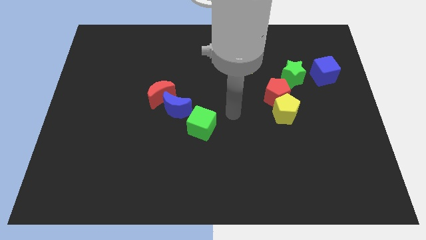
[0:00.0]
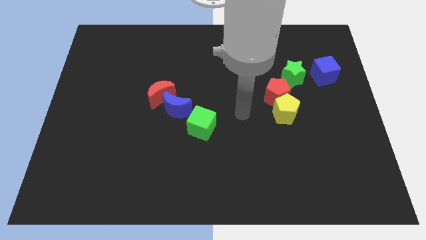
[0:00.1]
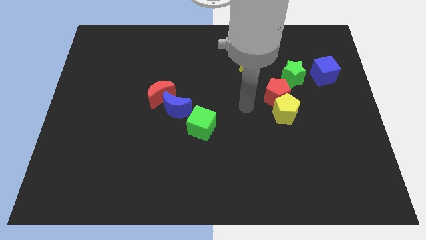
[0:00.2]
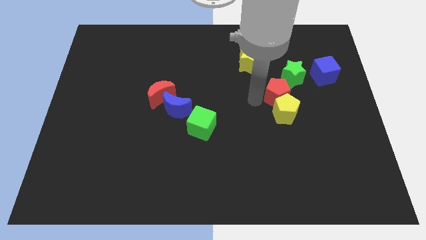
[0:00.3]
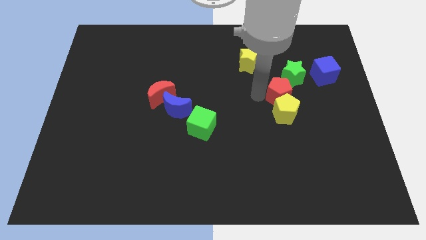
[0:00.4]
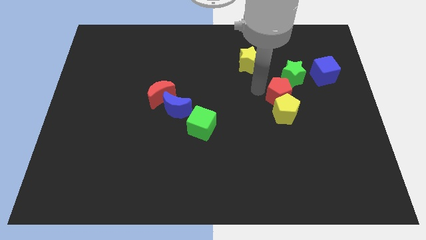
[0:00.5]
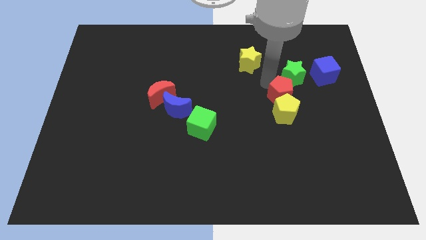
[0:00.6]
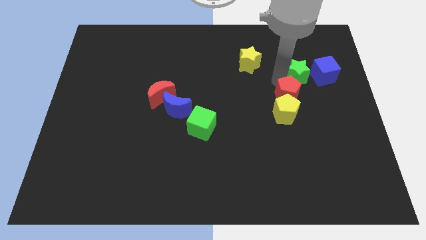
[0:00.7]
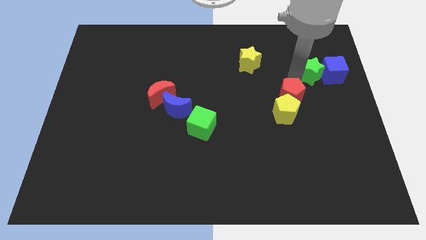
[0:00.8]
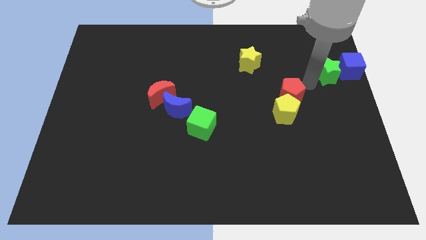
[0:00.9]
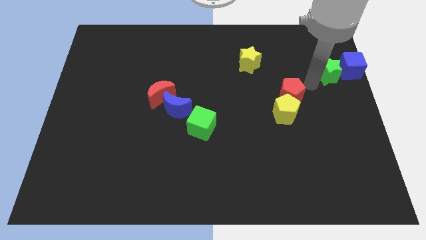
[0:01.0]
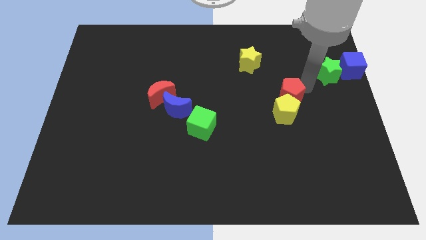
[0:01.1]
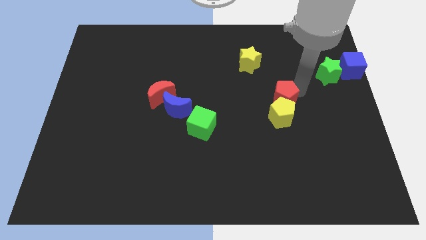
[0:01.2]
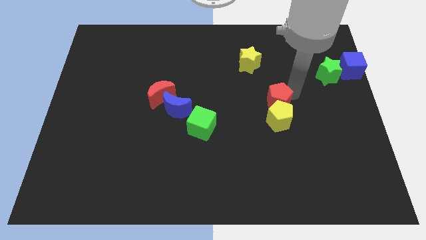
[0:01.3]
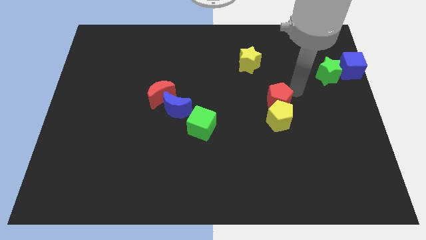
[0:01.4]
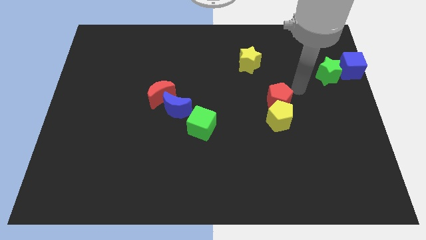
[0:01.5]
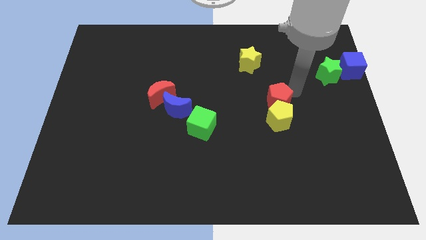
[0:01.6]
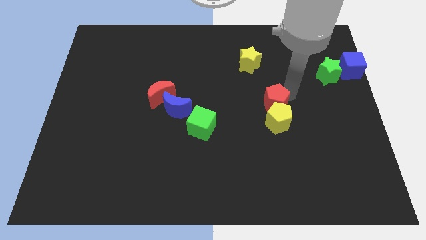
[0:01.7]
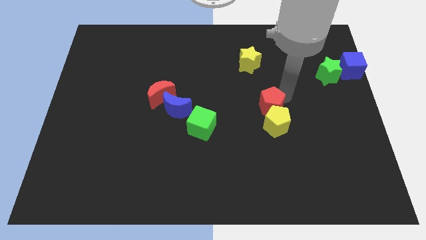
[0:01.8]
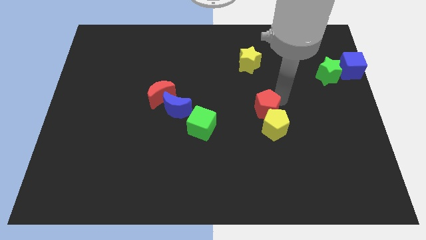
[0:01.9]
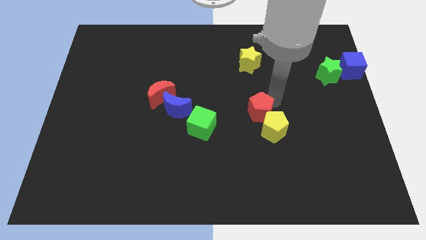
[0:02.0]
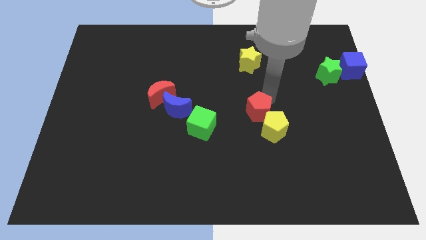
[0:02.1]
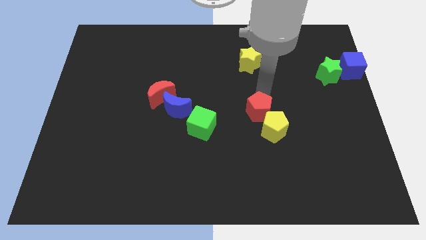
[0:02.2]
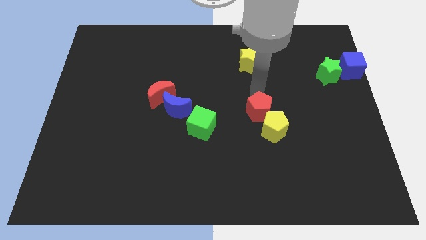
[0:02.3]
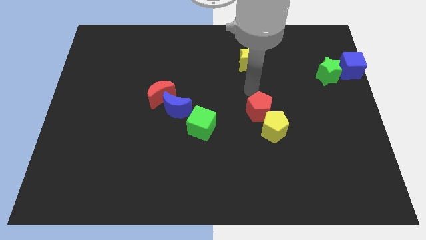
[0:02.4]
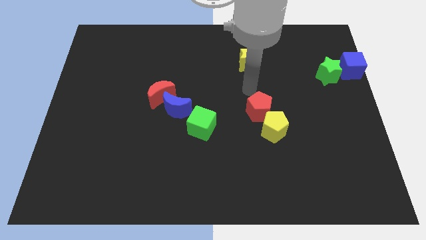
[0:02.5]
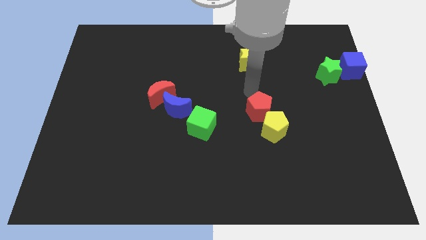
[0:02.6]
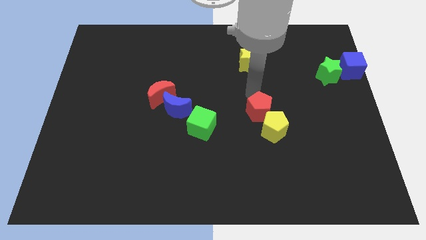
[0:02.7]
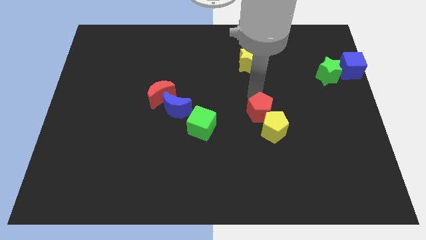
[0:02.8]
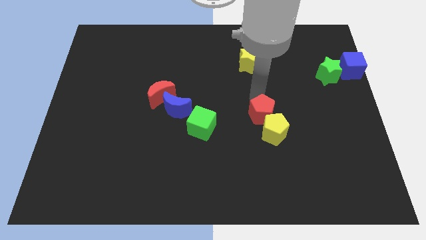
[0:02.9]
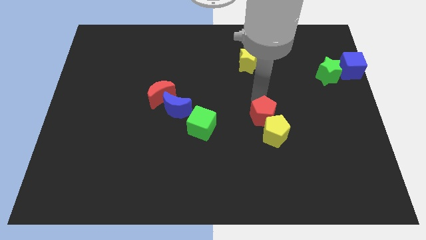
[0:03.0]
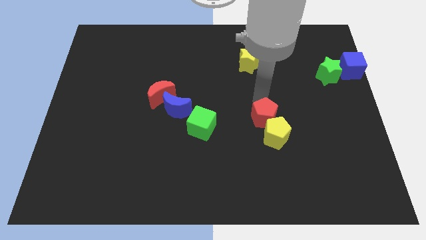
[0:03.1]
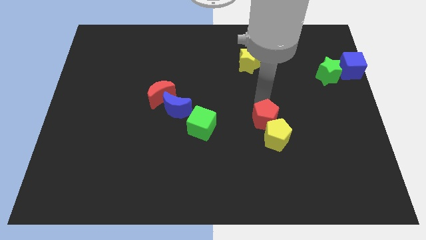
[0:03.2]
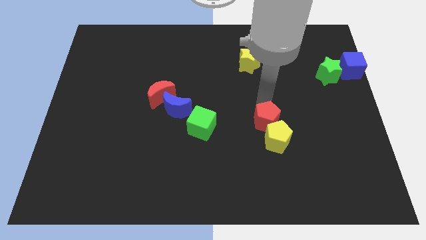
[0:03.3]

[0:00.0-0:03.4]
slightly move the red pentagon down

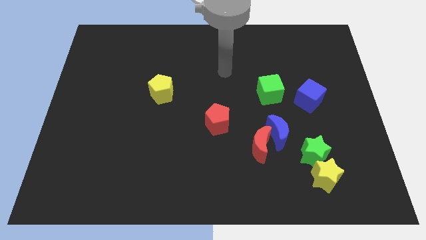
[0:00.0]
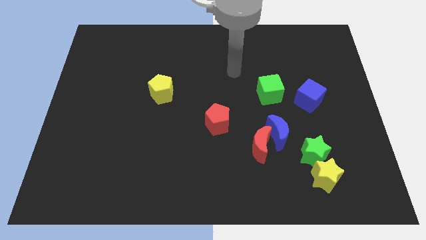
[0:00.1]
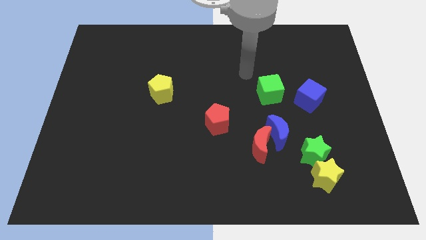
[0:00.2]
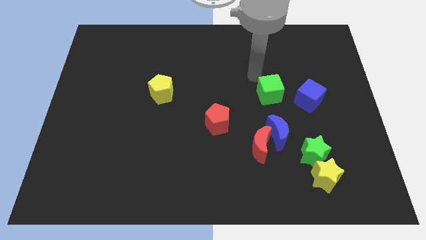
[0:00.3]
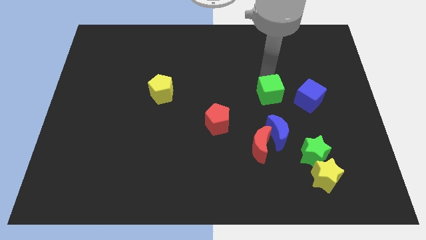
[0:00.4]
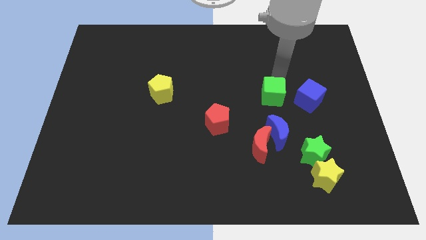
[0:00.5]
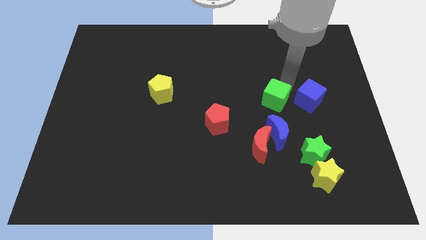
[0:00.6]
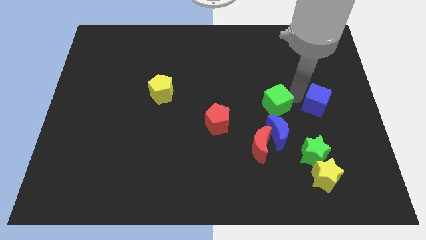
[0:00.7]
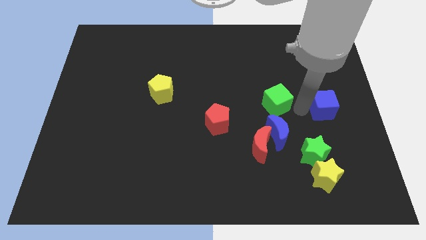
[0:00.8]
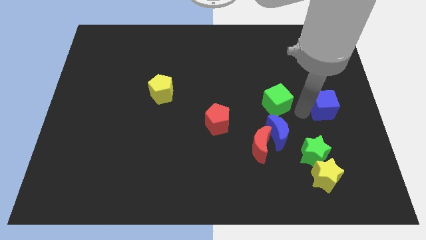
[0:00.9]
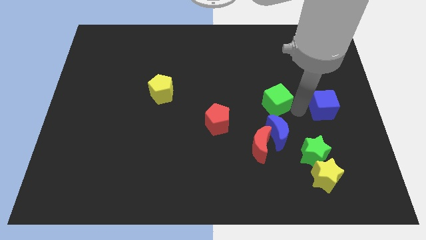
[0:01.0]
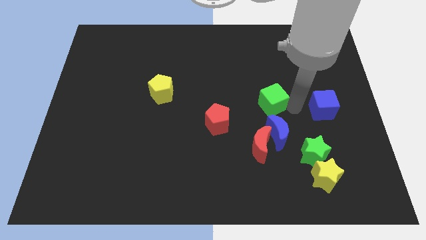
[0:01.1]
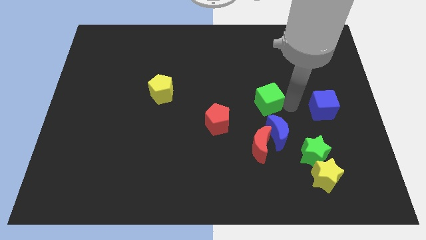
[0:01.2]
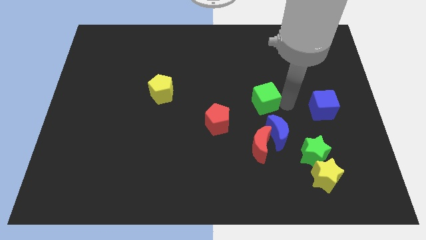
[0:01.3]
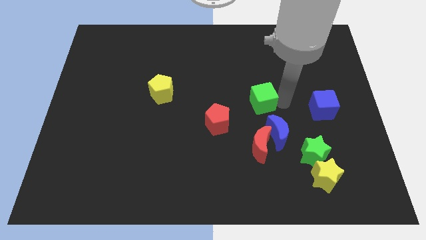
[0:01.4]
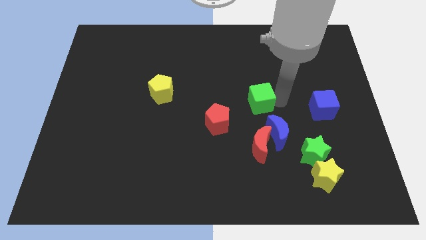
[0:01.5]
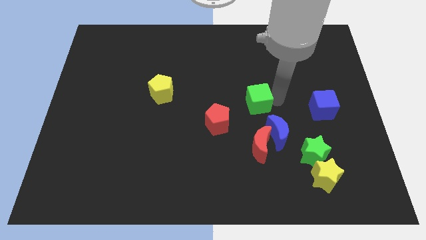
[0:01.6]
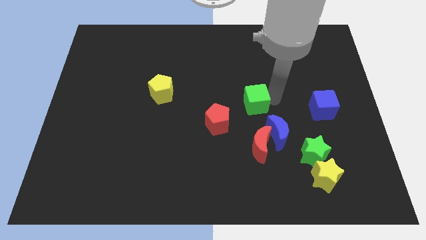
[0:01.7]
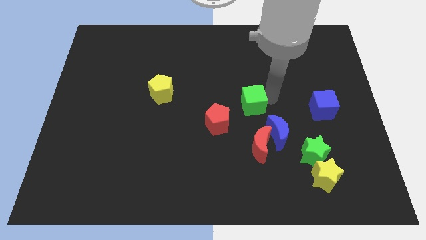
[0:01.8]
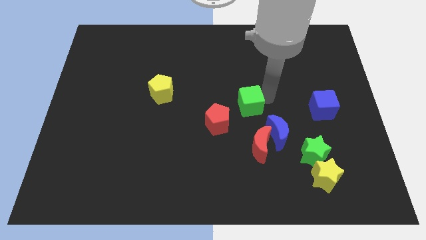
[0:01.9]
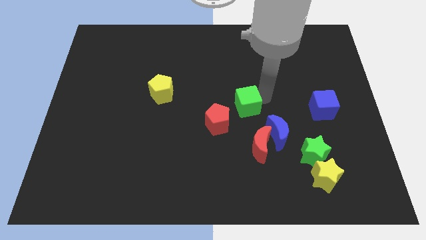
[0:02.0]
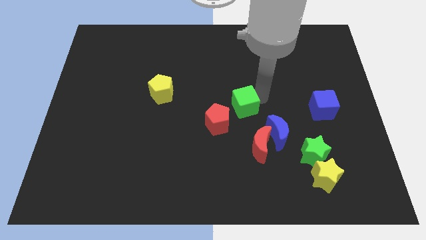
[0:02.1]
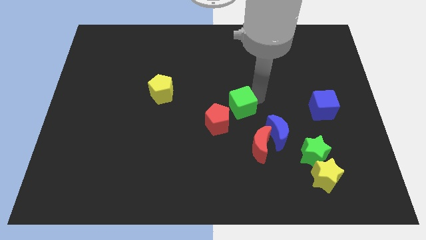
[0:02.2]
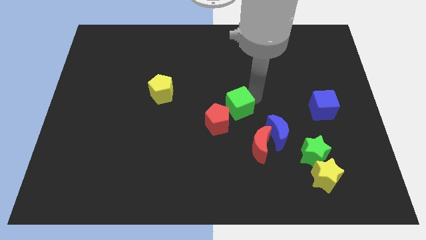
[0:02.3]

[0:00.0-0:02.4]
push the green cube a little bit to the left

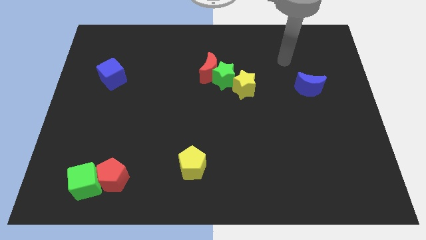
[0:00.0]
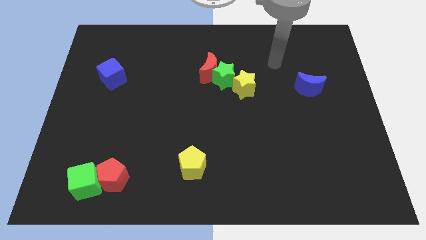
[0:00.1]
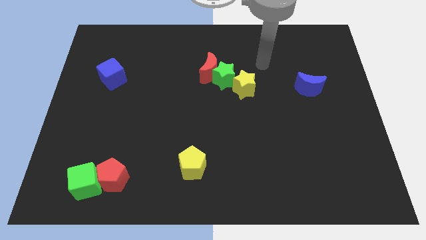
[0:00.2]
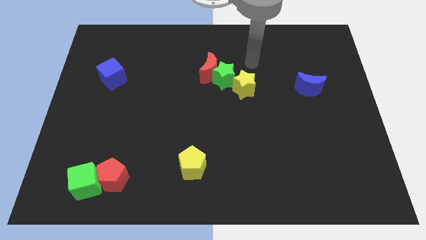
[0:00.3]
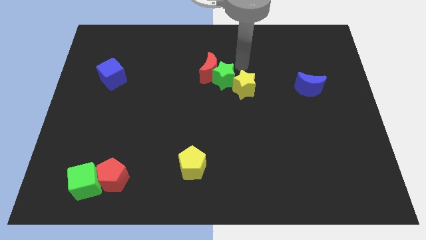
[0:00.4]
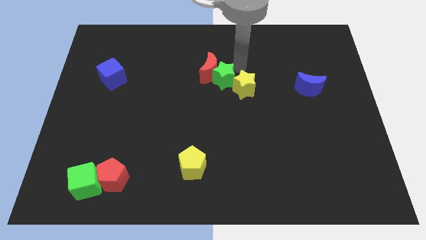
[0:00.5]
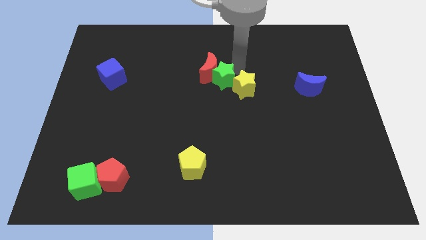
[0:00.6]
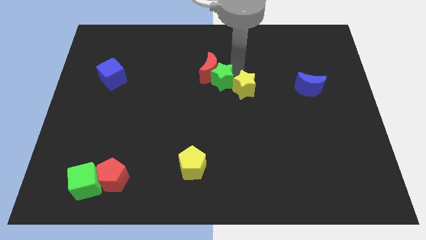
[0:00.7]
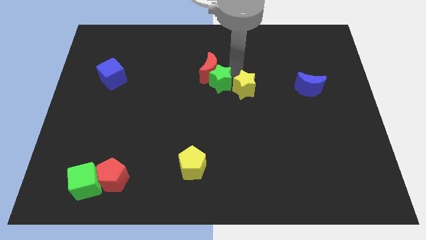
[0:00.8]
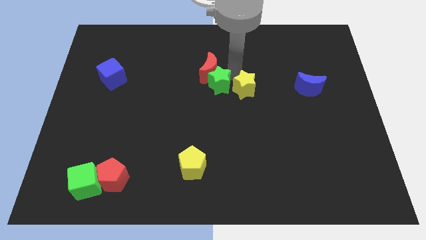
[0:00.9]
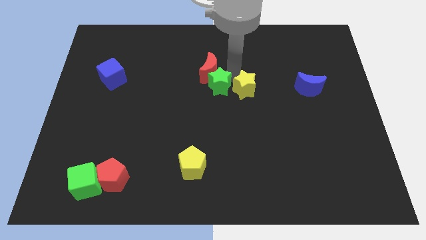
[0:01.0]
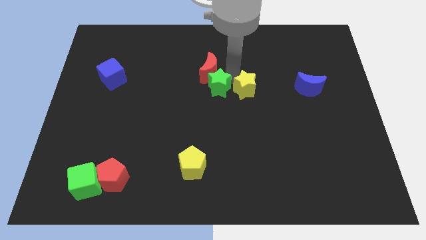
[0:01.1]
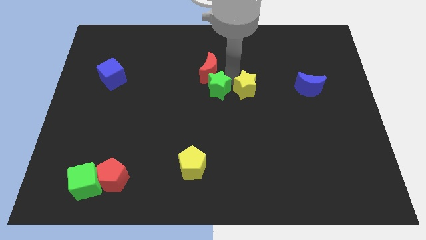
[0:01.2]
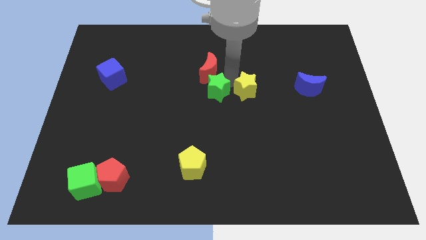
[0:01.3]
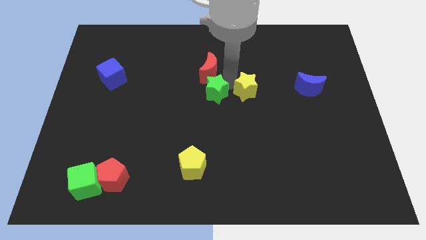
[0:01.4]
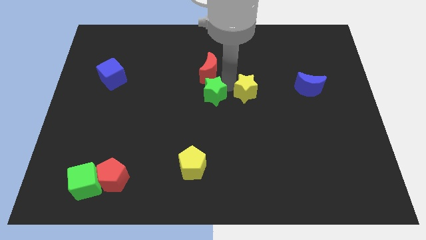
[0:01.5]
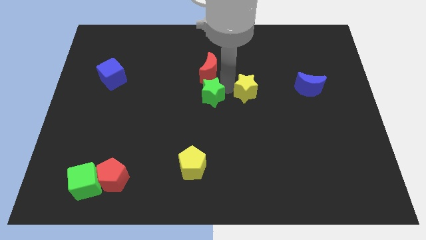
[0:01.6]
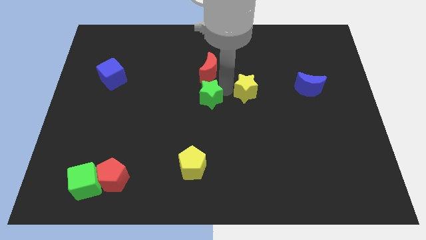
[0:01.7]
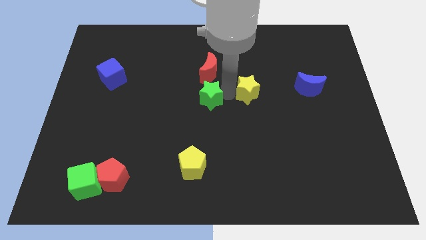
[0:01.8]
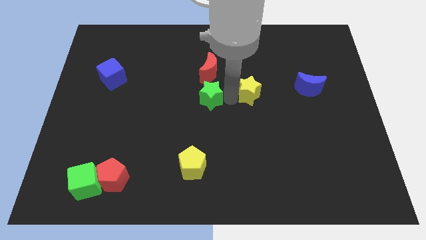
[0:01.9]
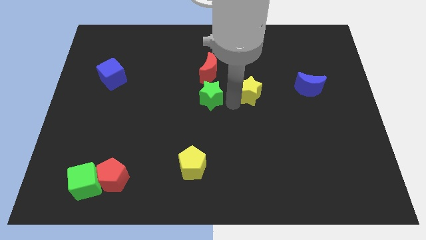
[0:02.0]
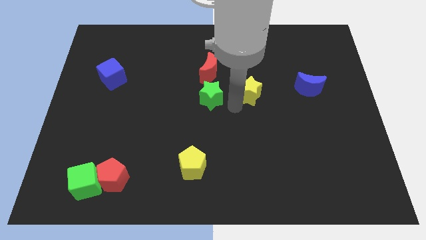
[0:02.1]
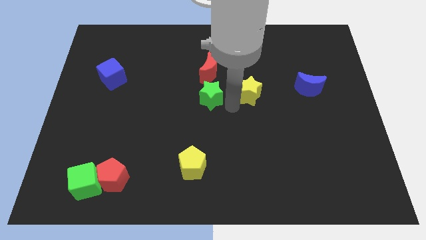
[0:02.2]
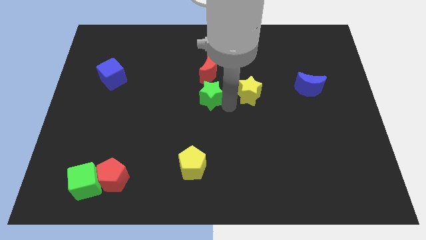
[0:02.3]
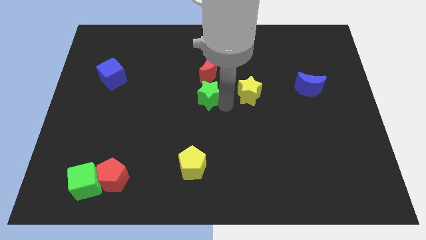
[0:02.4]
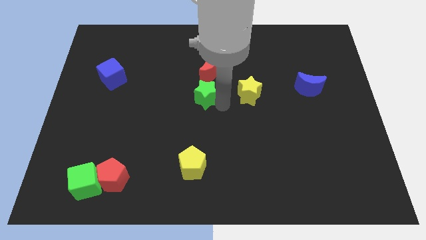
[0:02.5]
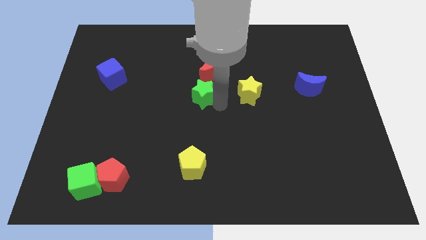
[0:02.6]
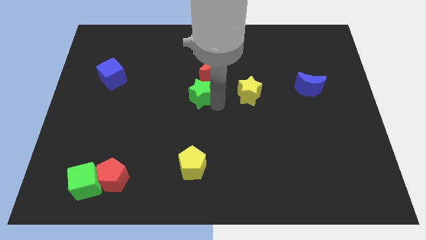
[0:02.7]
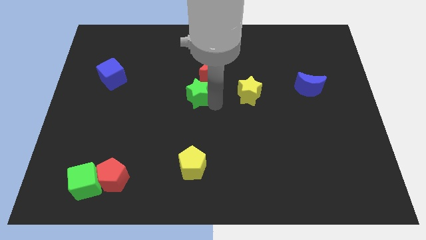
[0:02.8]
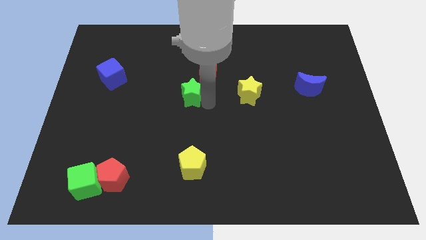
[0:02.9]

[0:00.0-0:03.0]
move the green star left a little bit
